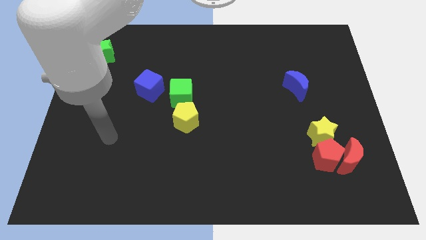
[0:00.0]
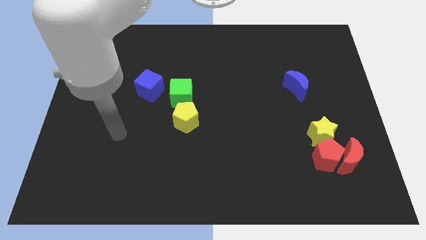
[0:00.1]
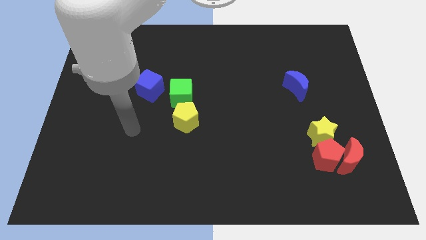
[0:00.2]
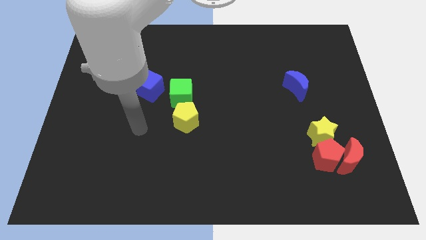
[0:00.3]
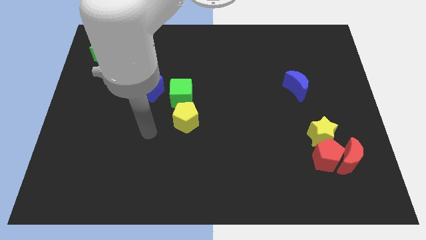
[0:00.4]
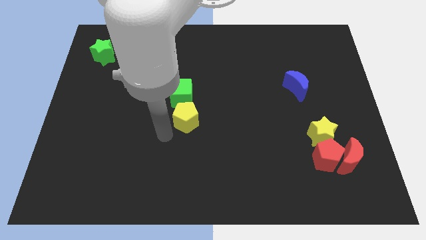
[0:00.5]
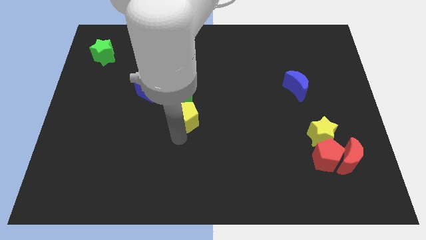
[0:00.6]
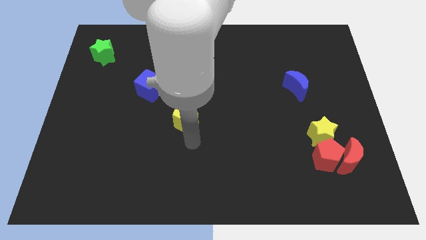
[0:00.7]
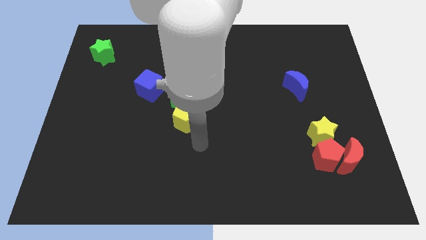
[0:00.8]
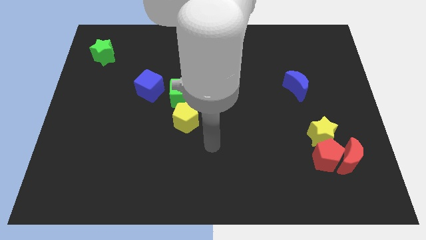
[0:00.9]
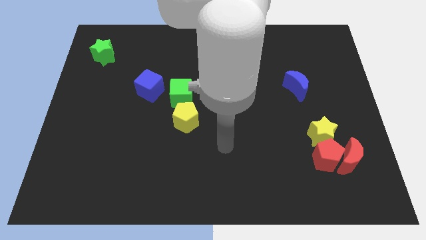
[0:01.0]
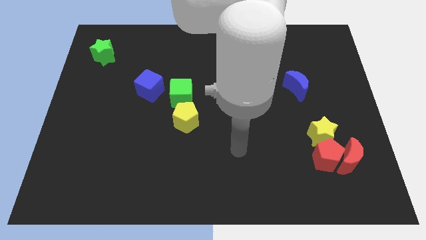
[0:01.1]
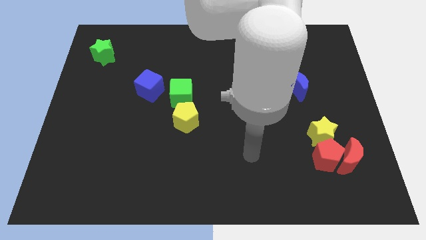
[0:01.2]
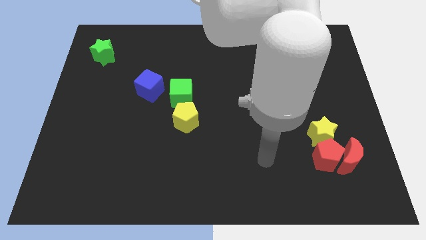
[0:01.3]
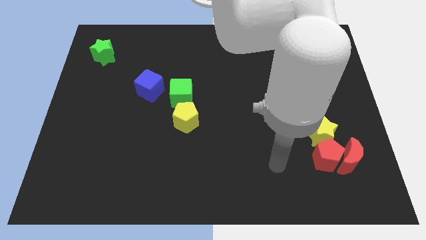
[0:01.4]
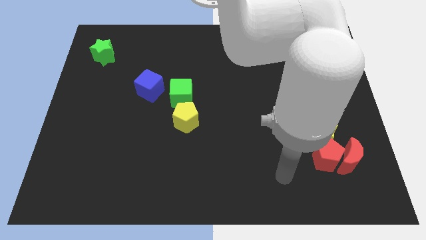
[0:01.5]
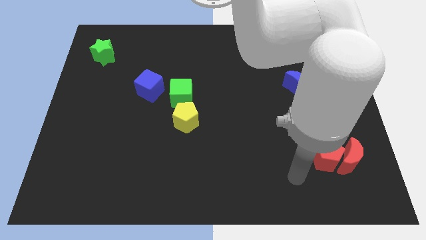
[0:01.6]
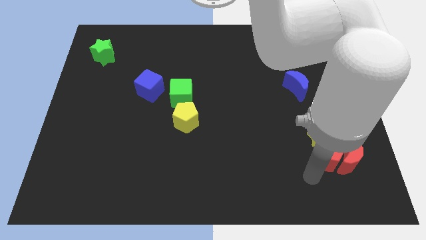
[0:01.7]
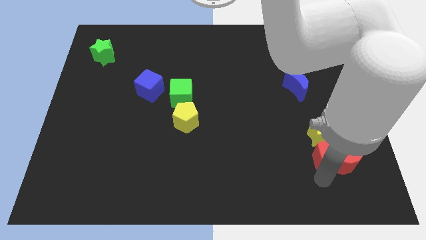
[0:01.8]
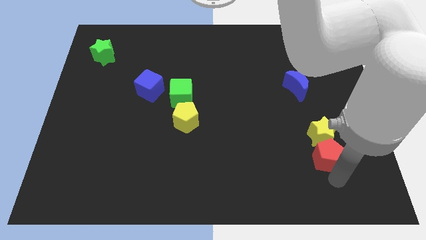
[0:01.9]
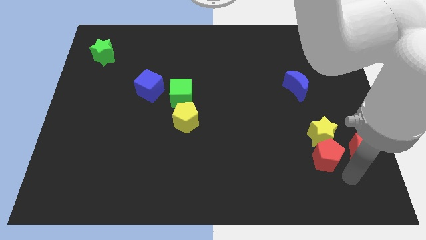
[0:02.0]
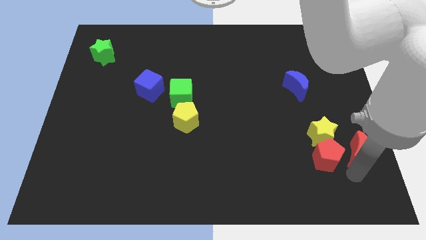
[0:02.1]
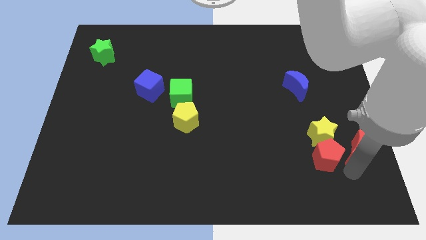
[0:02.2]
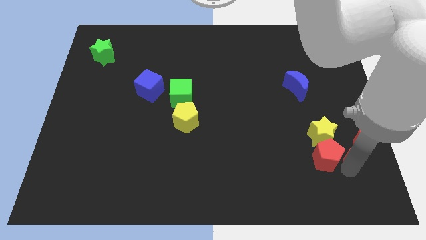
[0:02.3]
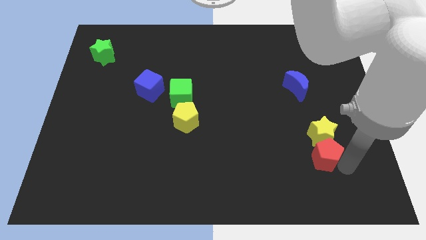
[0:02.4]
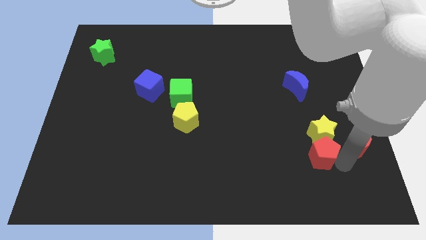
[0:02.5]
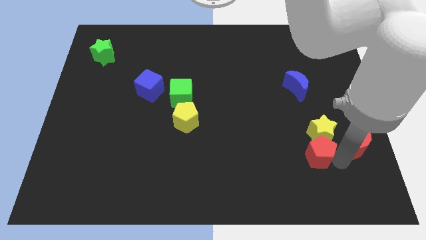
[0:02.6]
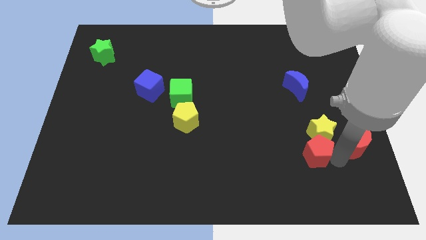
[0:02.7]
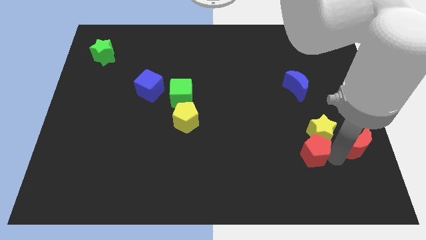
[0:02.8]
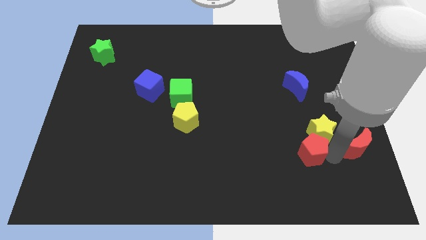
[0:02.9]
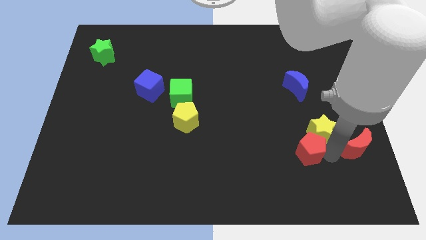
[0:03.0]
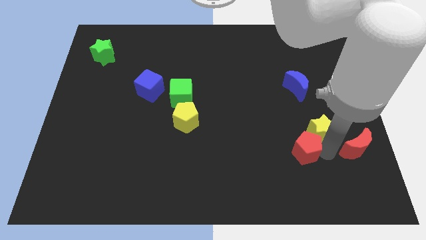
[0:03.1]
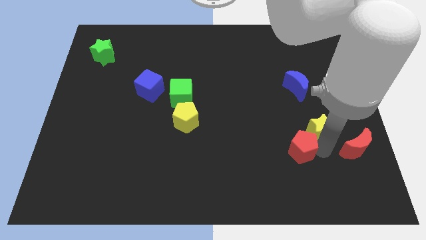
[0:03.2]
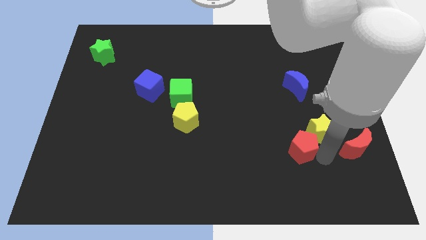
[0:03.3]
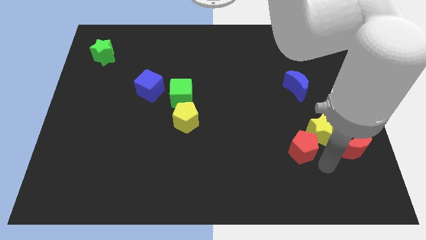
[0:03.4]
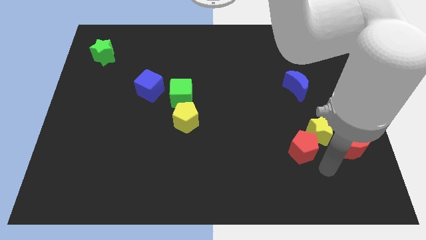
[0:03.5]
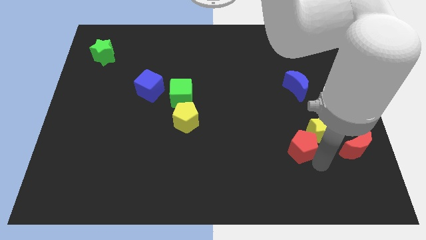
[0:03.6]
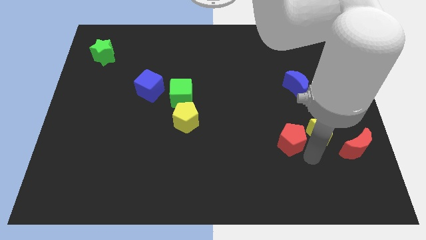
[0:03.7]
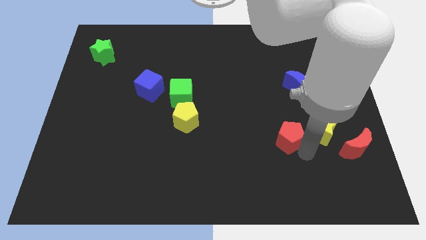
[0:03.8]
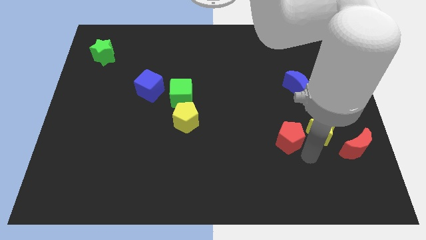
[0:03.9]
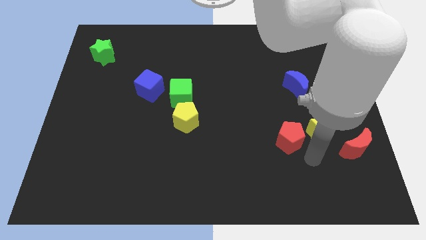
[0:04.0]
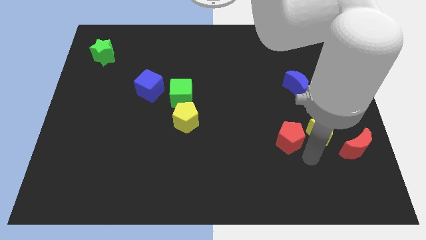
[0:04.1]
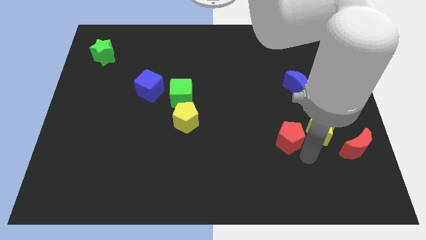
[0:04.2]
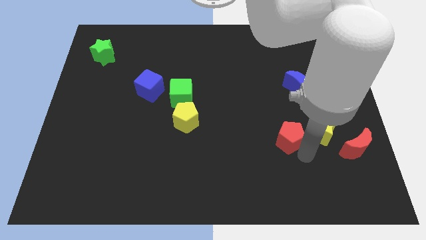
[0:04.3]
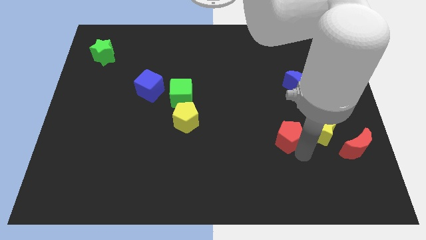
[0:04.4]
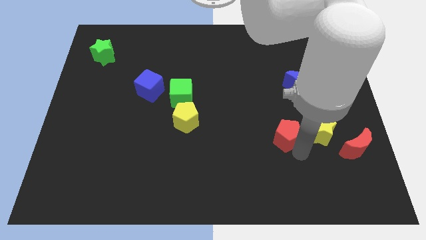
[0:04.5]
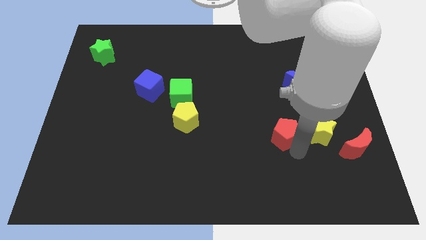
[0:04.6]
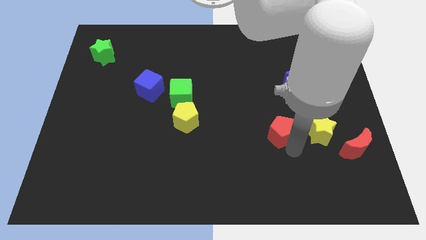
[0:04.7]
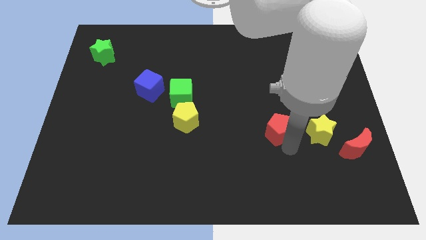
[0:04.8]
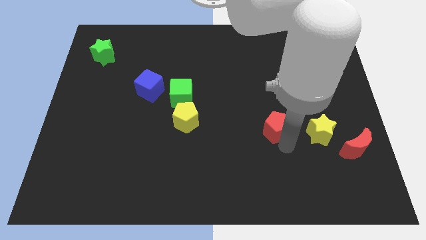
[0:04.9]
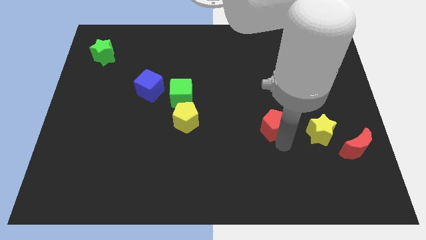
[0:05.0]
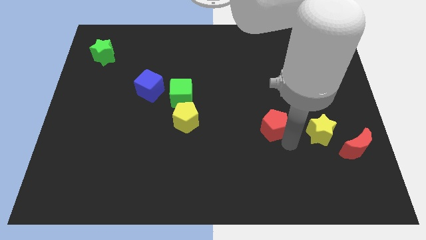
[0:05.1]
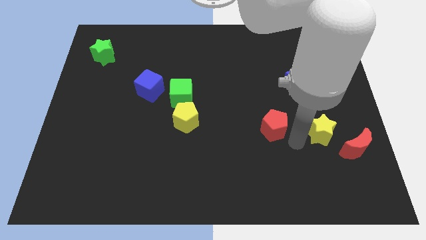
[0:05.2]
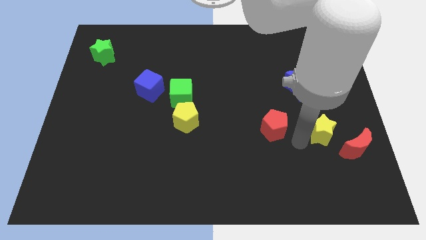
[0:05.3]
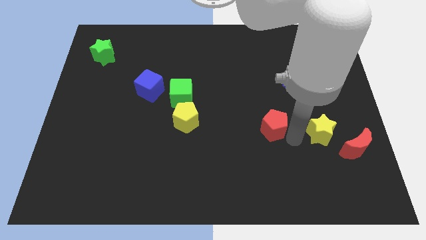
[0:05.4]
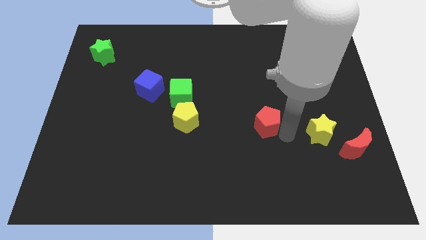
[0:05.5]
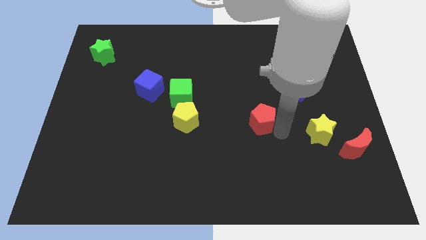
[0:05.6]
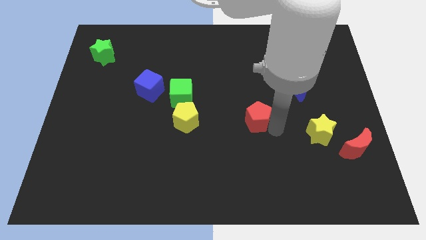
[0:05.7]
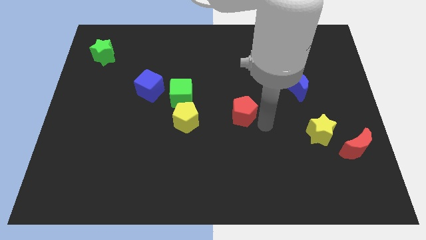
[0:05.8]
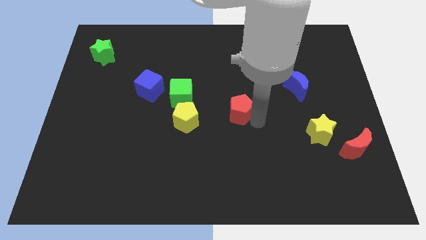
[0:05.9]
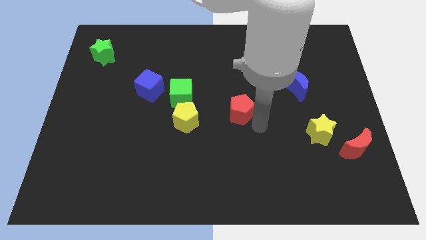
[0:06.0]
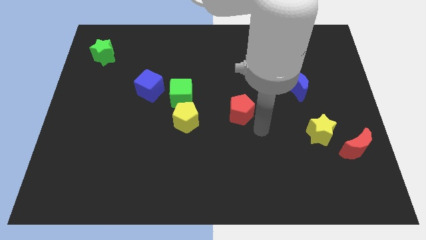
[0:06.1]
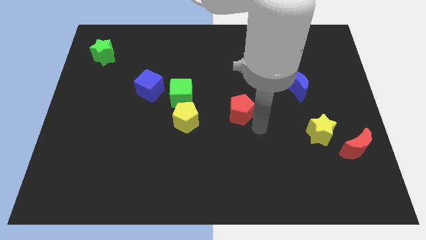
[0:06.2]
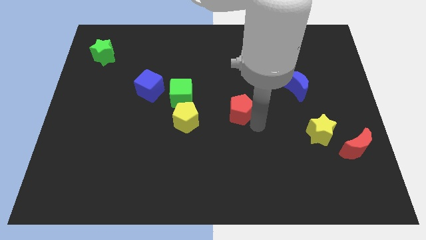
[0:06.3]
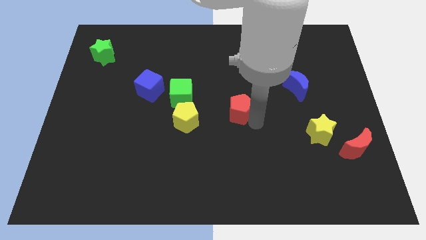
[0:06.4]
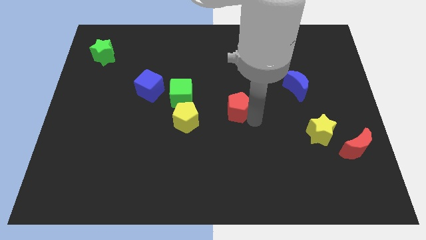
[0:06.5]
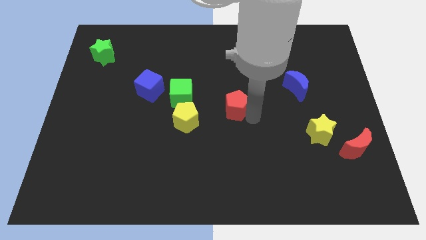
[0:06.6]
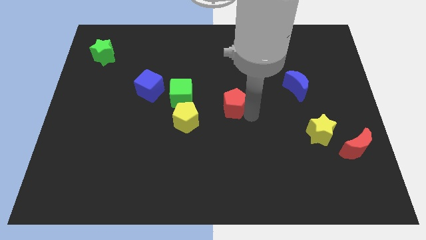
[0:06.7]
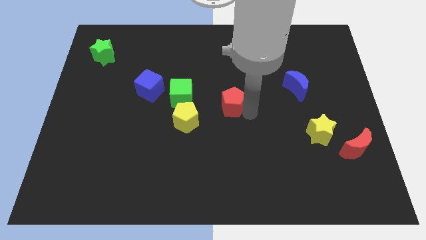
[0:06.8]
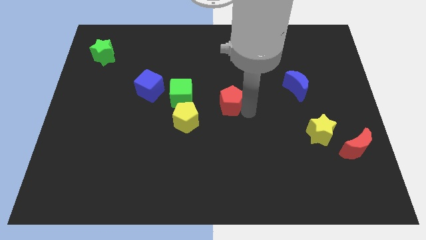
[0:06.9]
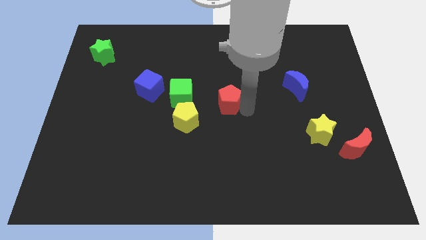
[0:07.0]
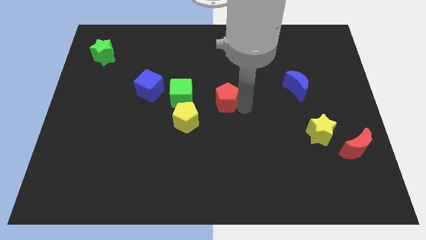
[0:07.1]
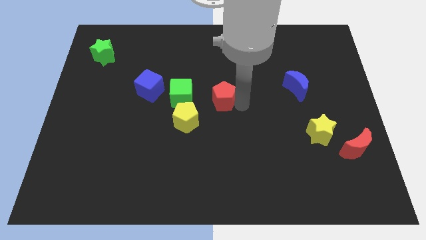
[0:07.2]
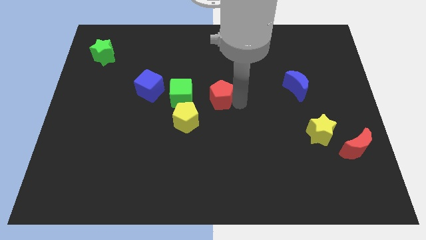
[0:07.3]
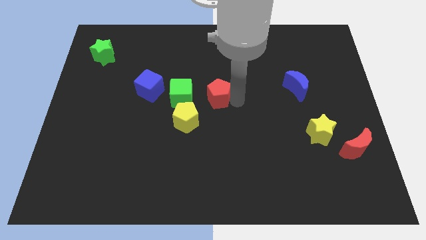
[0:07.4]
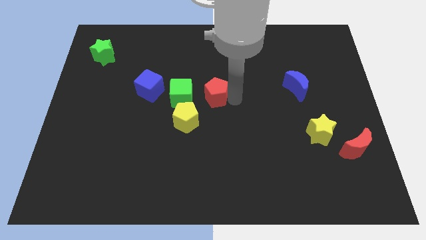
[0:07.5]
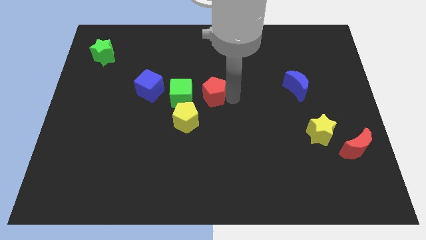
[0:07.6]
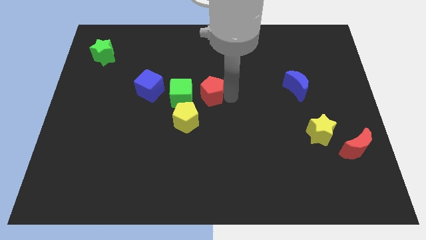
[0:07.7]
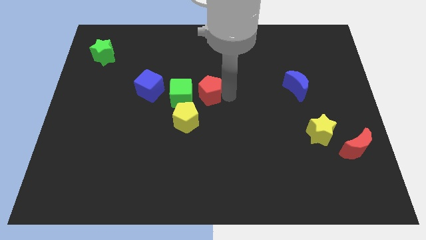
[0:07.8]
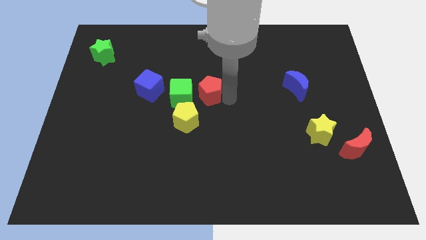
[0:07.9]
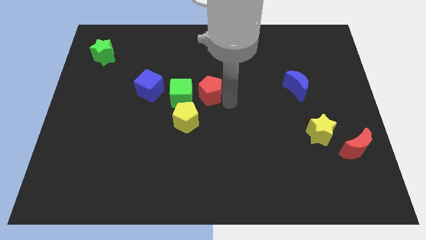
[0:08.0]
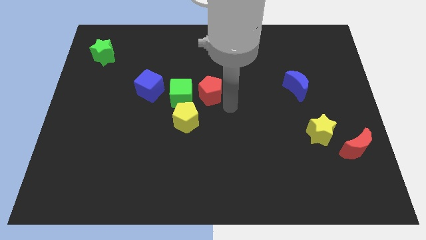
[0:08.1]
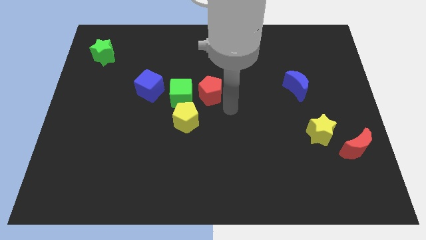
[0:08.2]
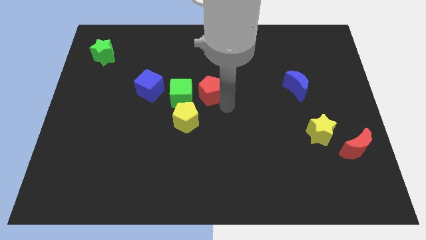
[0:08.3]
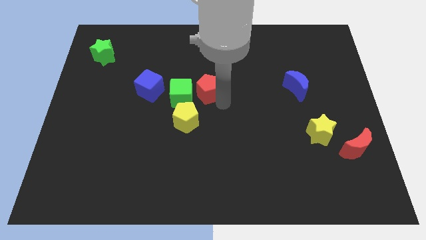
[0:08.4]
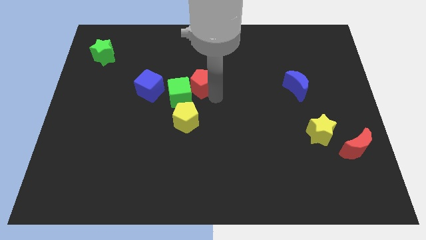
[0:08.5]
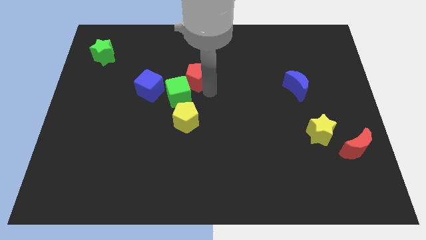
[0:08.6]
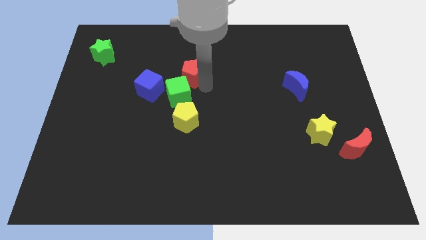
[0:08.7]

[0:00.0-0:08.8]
put the red pentagon to the top right side of the blue cube
